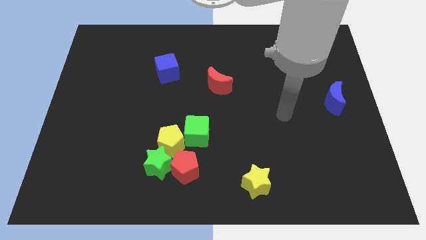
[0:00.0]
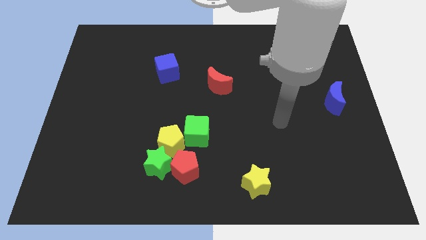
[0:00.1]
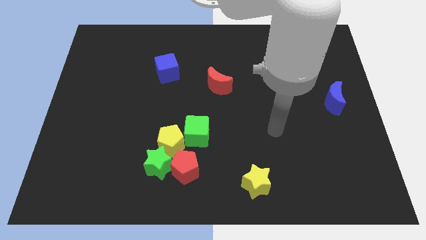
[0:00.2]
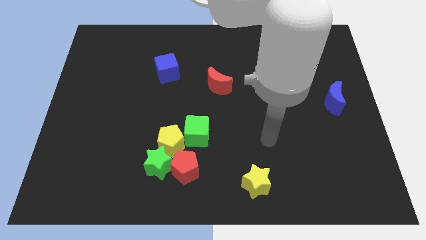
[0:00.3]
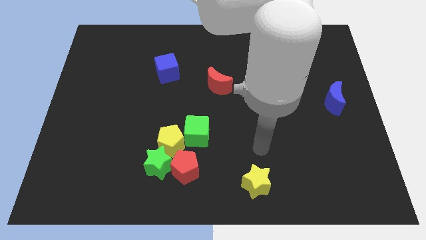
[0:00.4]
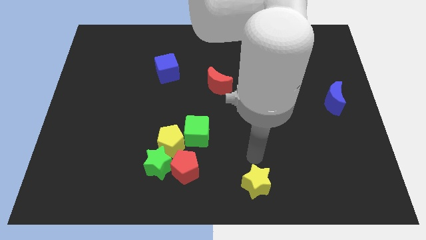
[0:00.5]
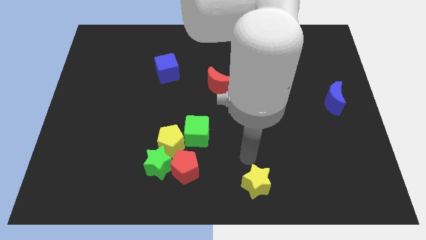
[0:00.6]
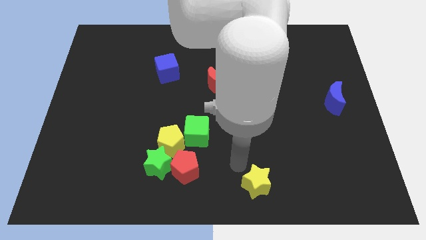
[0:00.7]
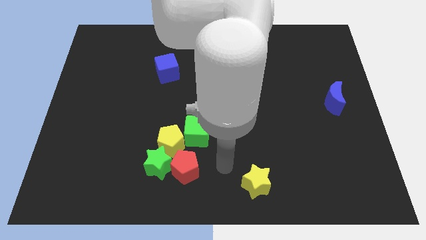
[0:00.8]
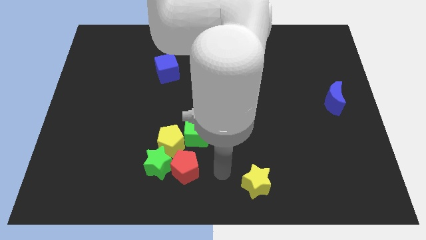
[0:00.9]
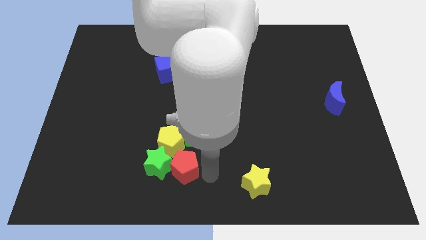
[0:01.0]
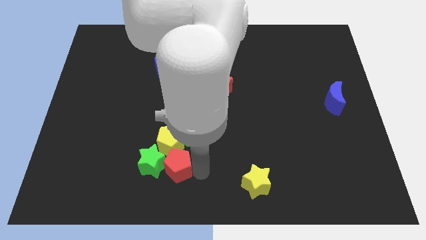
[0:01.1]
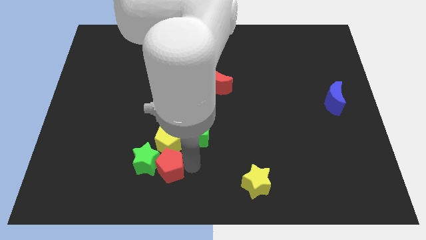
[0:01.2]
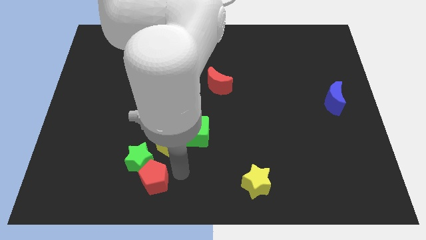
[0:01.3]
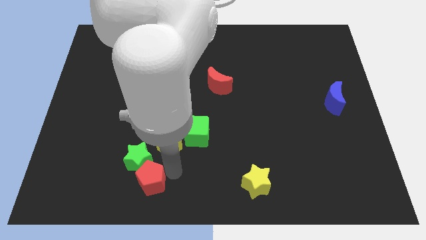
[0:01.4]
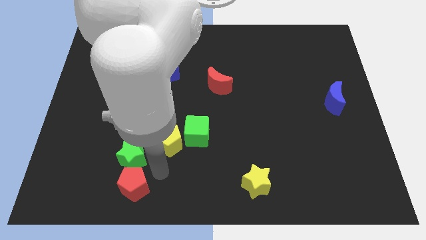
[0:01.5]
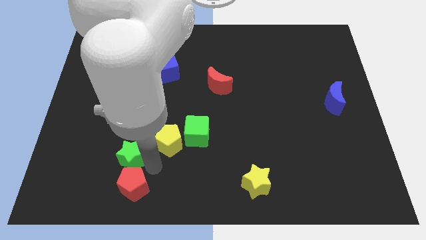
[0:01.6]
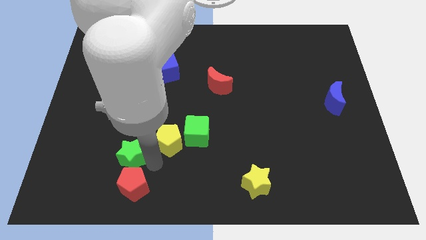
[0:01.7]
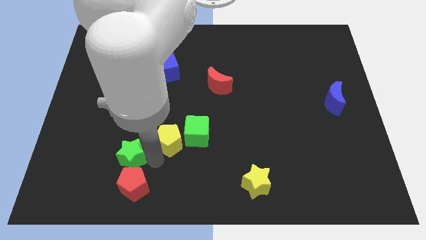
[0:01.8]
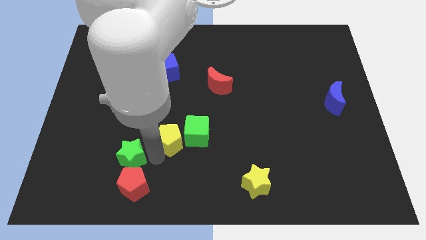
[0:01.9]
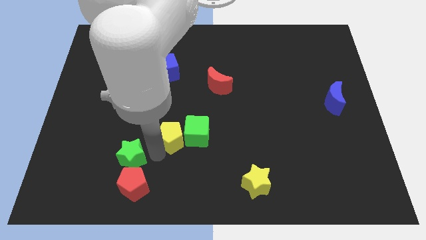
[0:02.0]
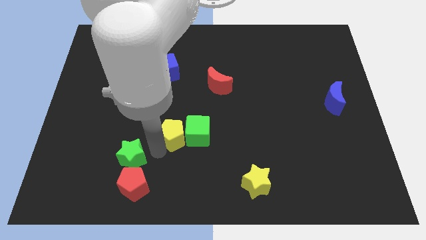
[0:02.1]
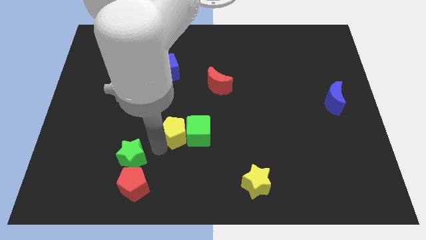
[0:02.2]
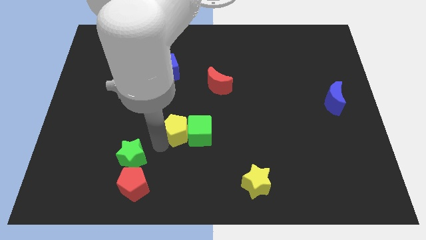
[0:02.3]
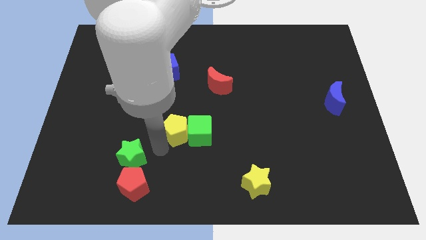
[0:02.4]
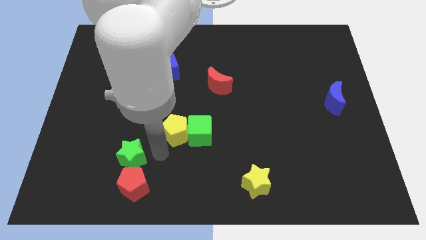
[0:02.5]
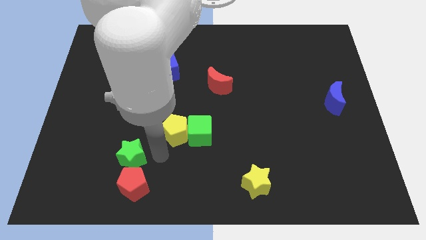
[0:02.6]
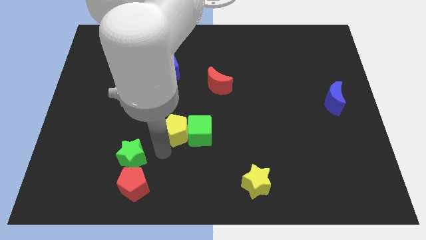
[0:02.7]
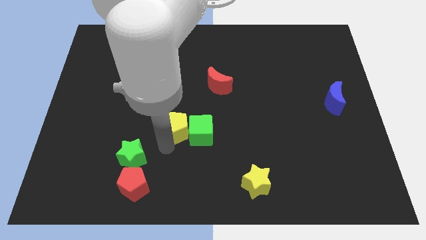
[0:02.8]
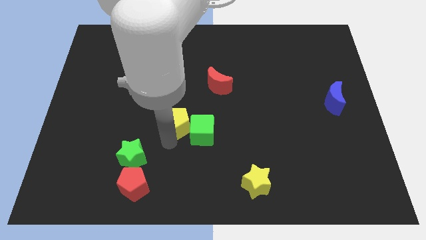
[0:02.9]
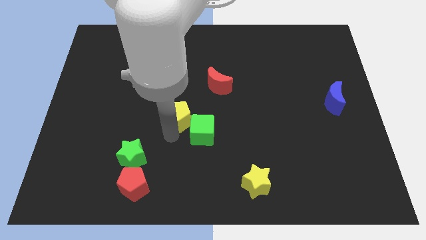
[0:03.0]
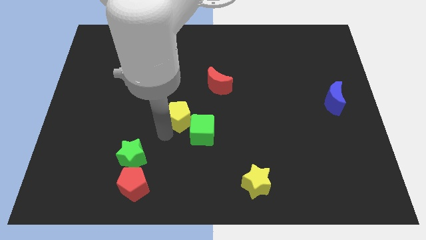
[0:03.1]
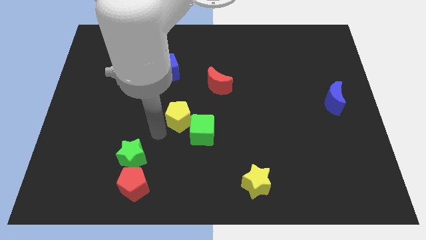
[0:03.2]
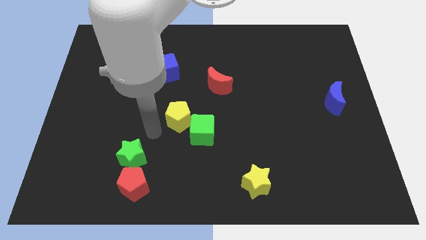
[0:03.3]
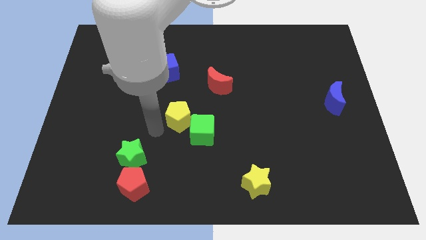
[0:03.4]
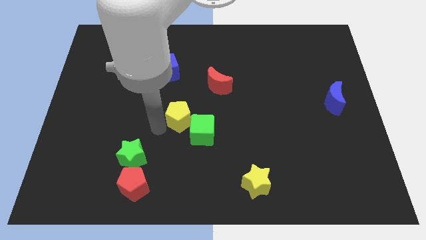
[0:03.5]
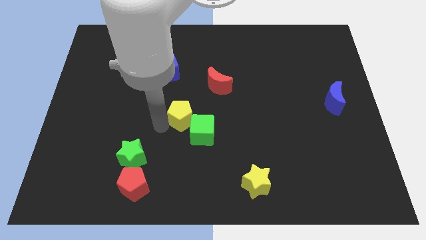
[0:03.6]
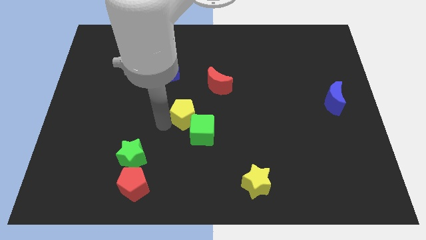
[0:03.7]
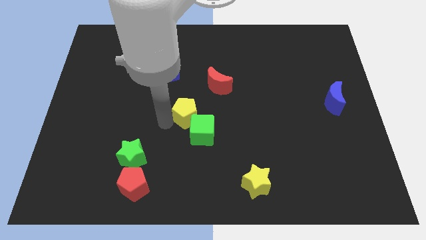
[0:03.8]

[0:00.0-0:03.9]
slide the yellow pentagon somewhat up and to the right

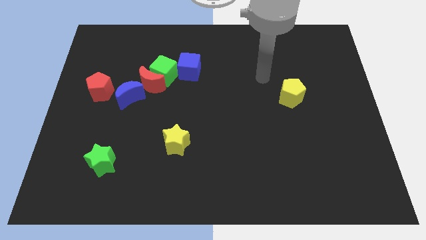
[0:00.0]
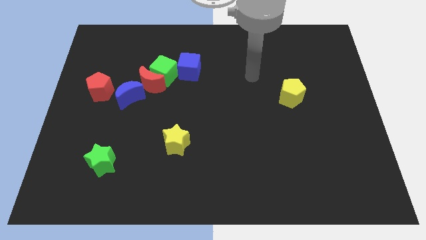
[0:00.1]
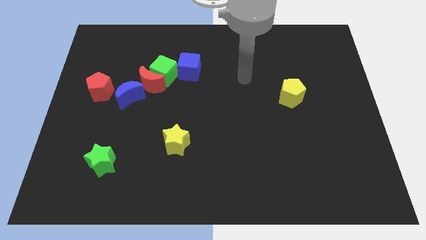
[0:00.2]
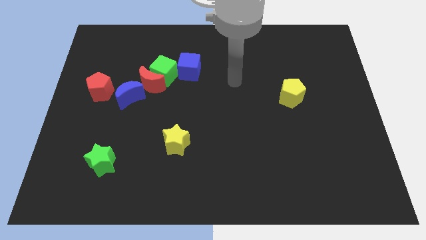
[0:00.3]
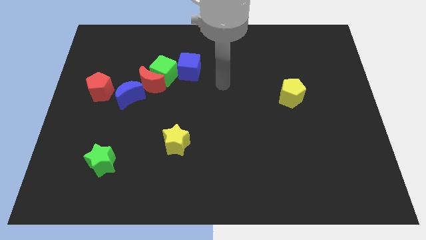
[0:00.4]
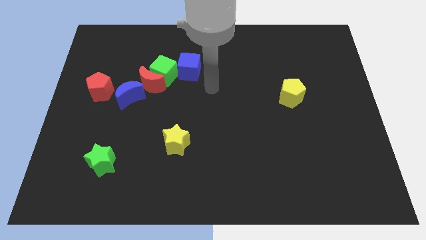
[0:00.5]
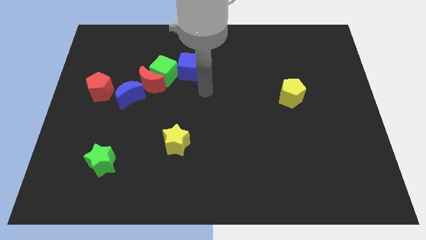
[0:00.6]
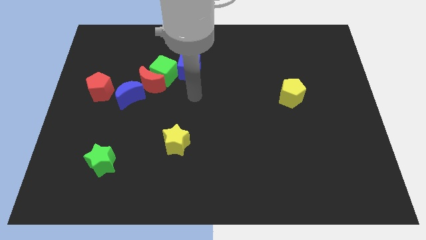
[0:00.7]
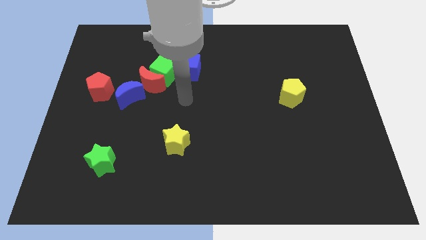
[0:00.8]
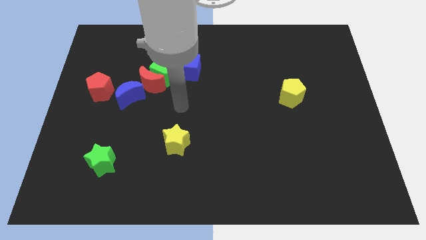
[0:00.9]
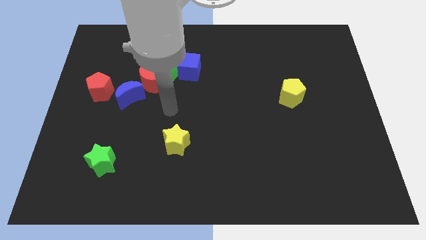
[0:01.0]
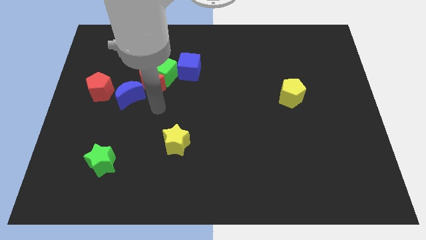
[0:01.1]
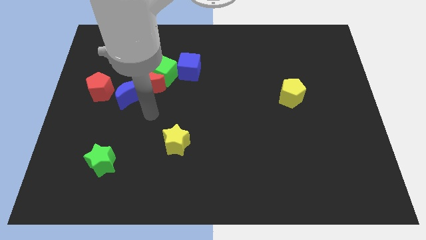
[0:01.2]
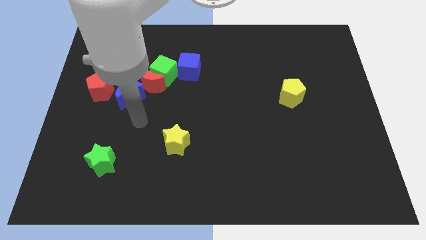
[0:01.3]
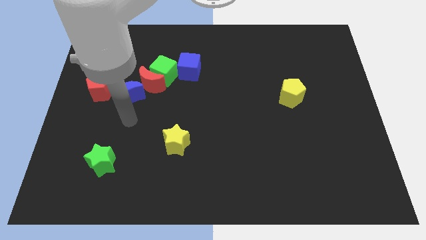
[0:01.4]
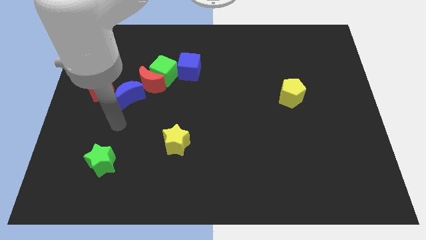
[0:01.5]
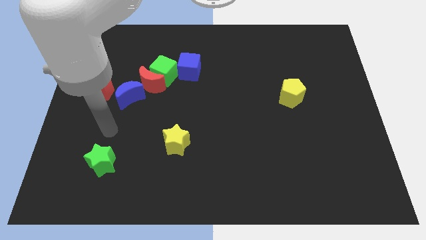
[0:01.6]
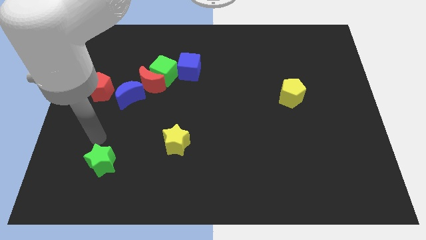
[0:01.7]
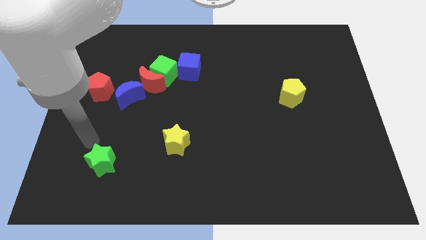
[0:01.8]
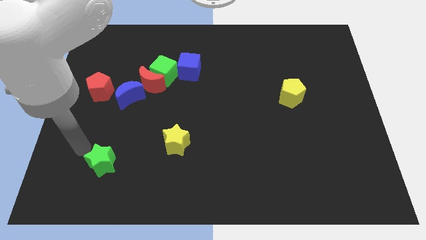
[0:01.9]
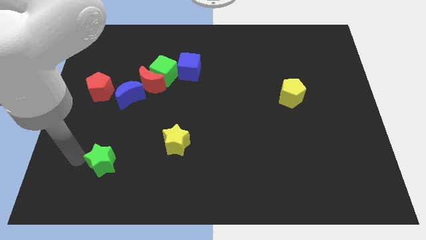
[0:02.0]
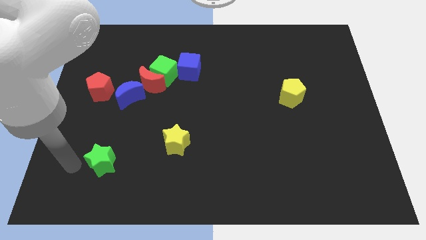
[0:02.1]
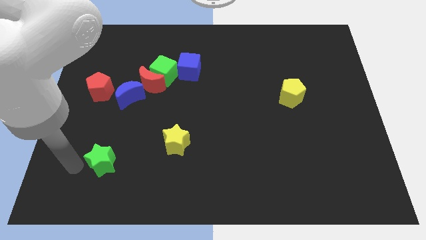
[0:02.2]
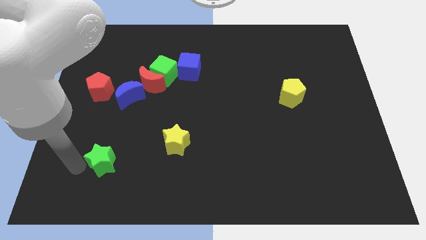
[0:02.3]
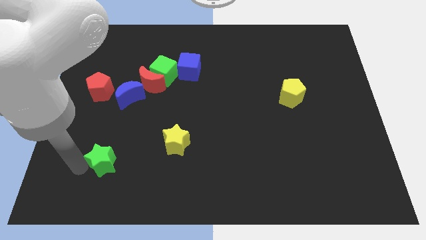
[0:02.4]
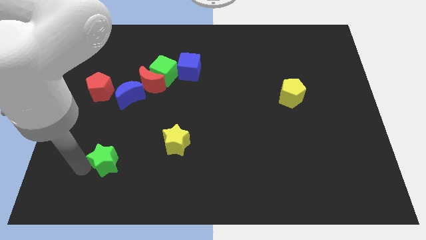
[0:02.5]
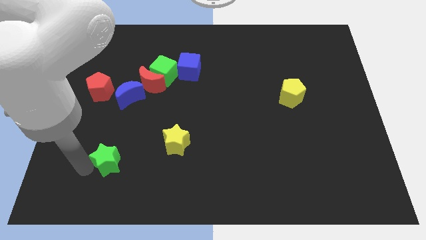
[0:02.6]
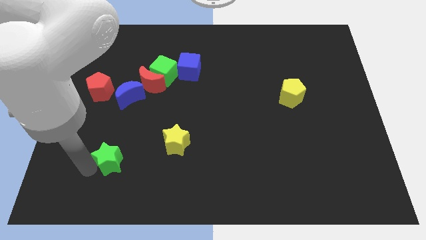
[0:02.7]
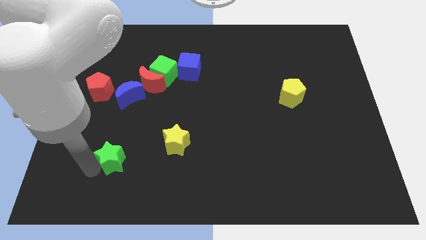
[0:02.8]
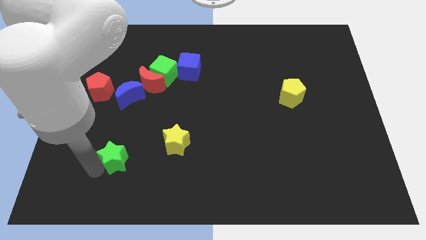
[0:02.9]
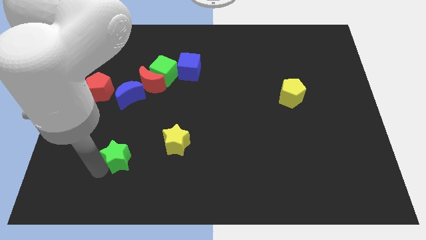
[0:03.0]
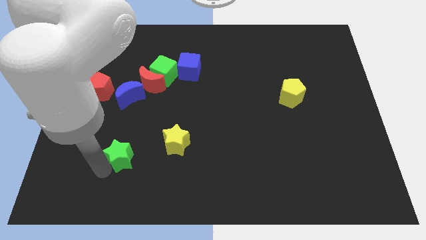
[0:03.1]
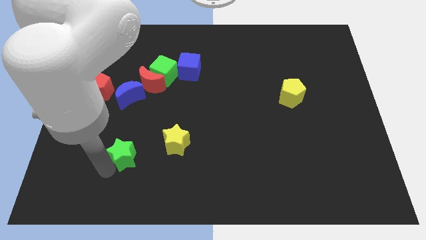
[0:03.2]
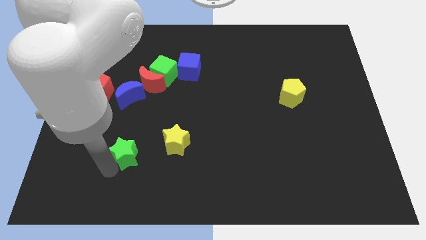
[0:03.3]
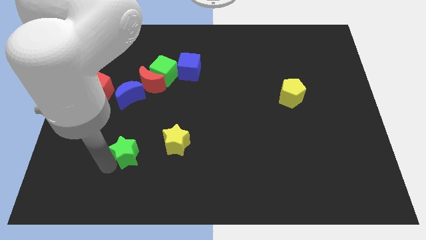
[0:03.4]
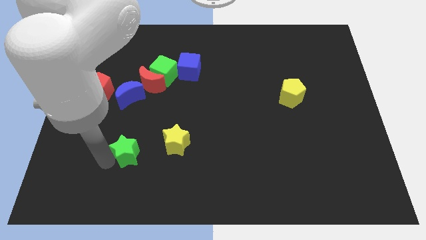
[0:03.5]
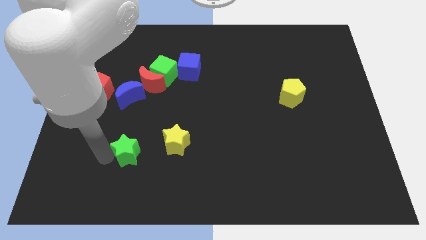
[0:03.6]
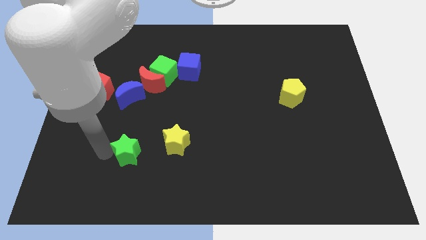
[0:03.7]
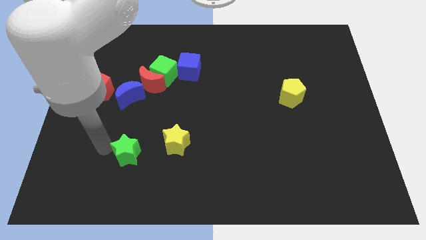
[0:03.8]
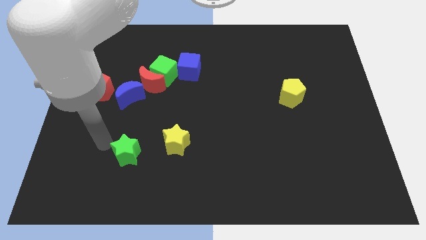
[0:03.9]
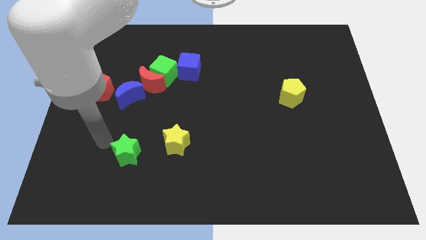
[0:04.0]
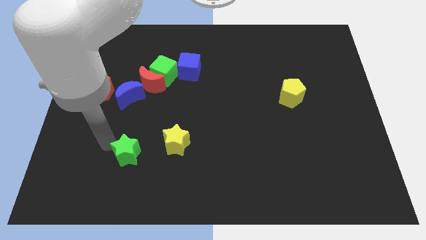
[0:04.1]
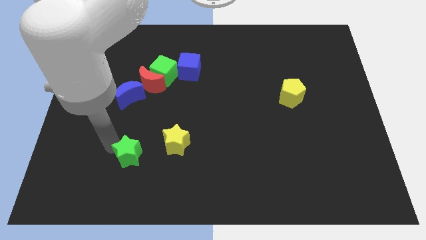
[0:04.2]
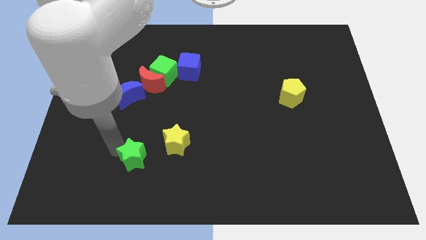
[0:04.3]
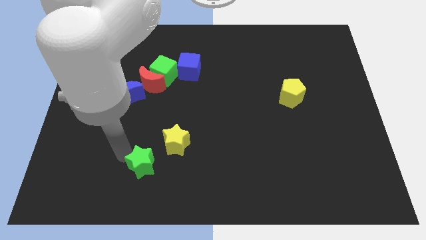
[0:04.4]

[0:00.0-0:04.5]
slightly move the green star right
